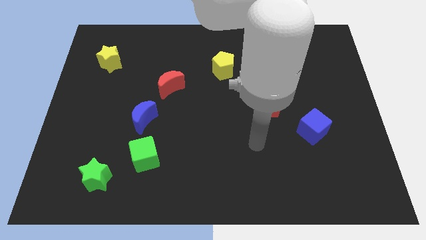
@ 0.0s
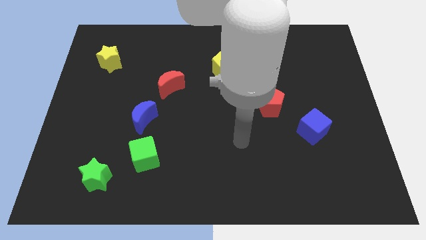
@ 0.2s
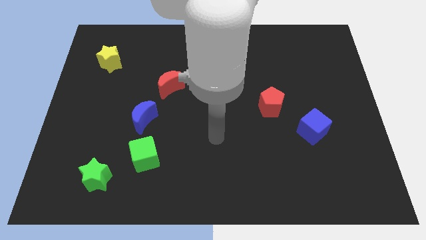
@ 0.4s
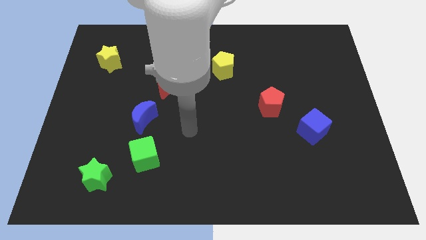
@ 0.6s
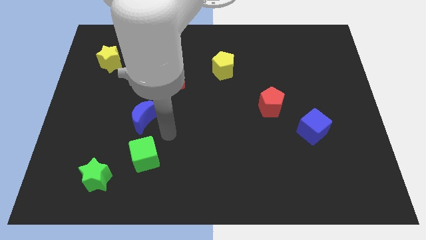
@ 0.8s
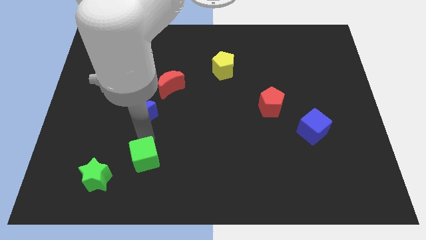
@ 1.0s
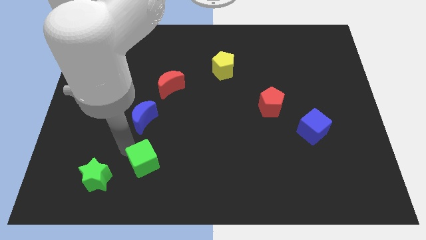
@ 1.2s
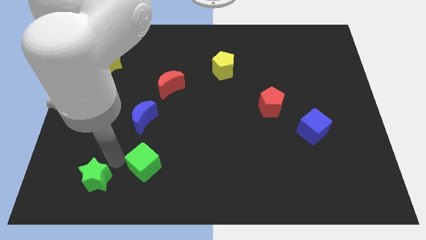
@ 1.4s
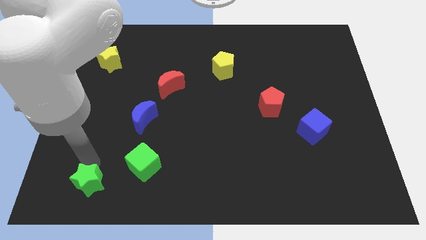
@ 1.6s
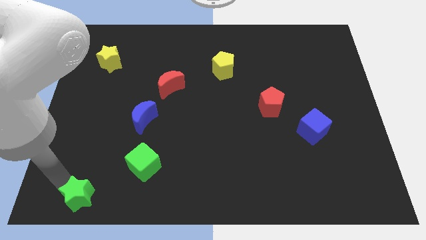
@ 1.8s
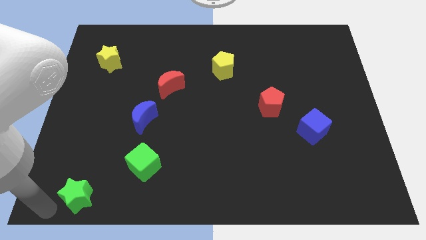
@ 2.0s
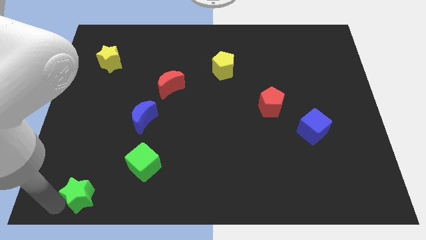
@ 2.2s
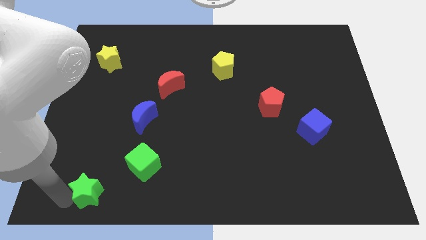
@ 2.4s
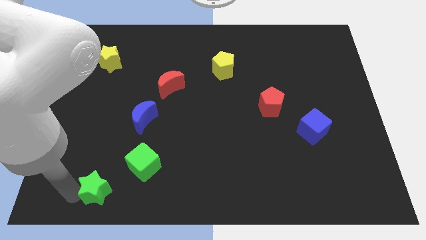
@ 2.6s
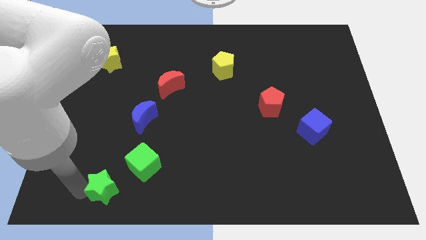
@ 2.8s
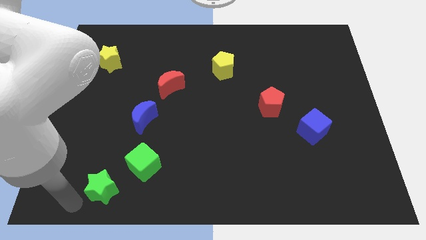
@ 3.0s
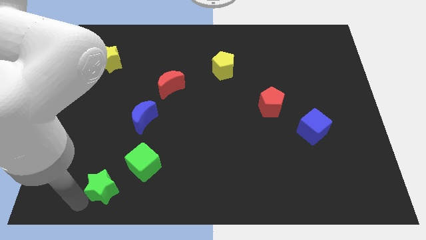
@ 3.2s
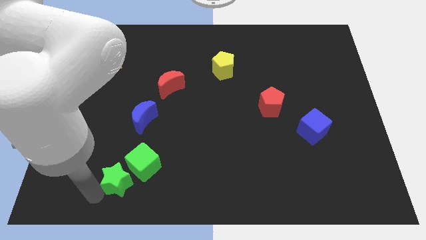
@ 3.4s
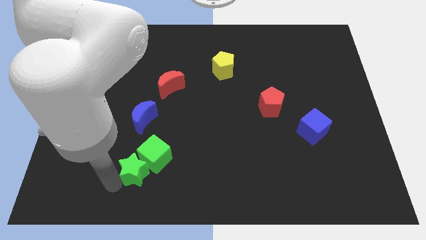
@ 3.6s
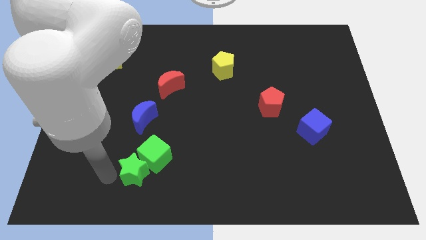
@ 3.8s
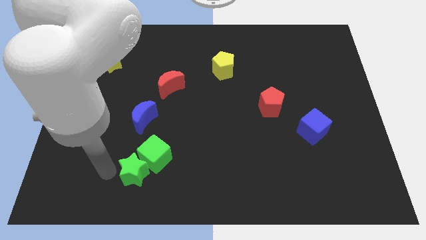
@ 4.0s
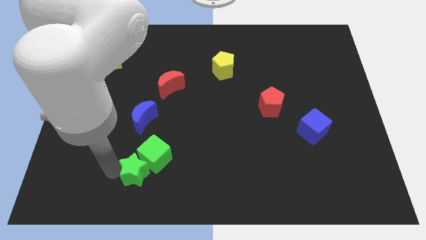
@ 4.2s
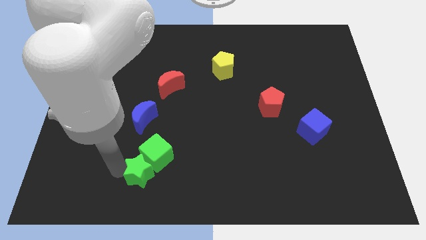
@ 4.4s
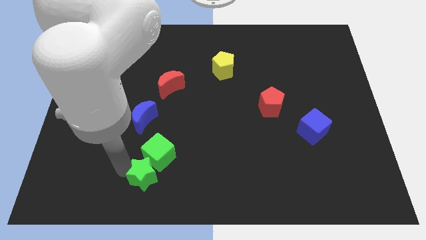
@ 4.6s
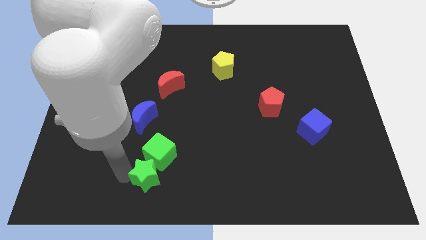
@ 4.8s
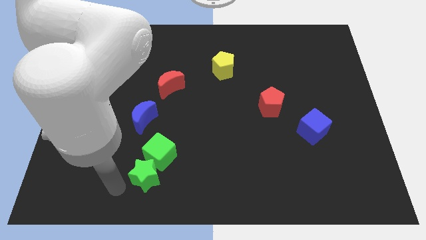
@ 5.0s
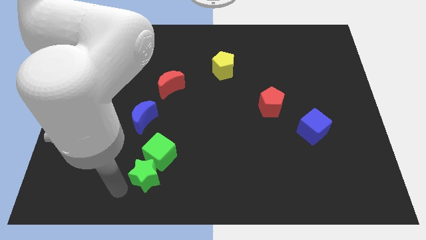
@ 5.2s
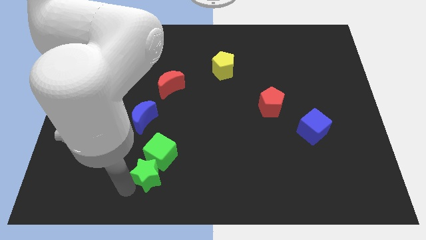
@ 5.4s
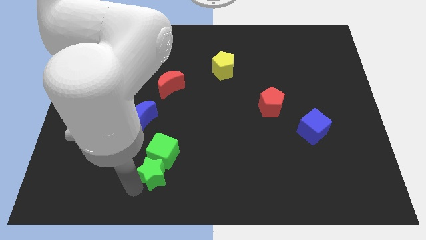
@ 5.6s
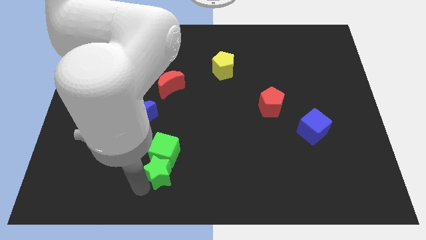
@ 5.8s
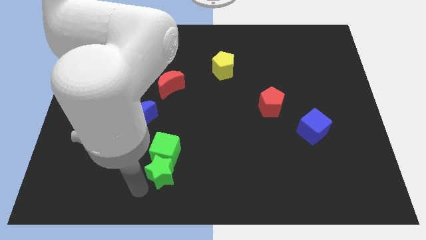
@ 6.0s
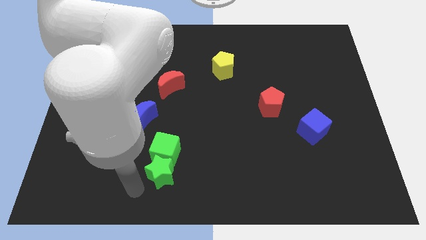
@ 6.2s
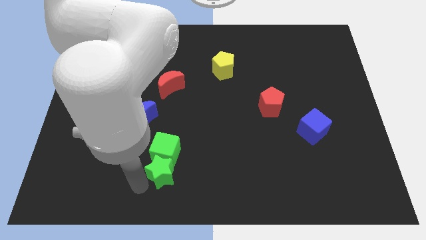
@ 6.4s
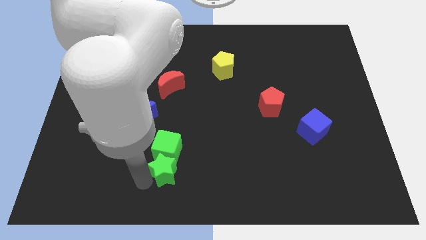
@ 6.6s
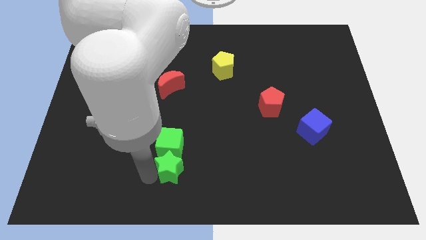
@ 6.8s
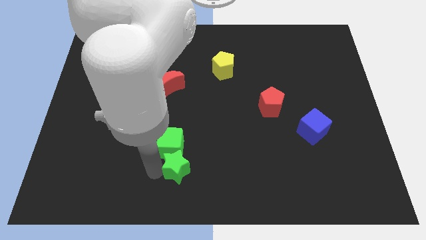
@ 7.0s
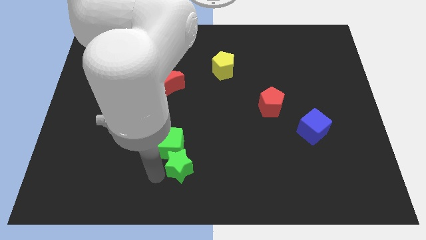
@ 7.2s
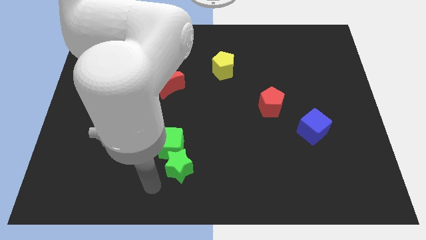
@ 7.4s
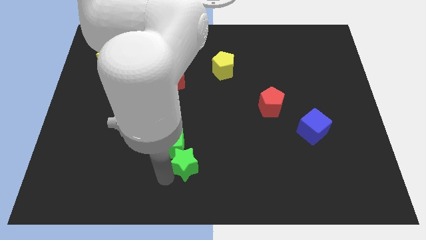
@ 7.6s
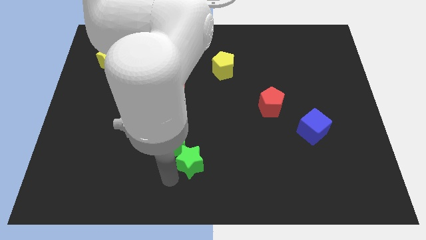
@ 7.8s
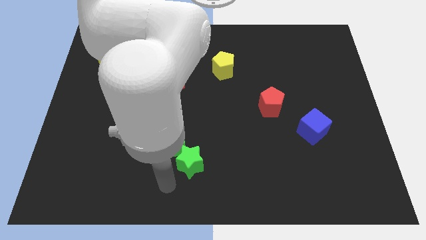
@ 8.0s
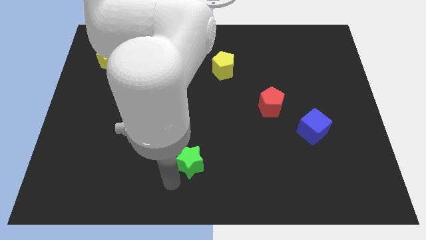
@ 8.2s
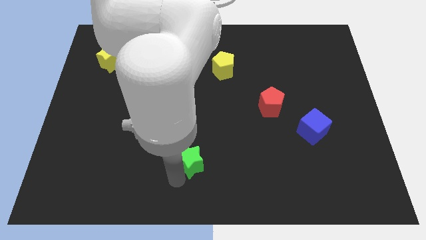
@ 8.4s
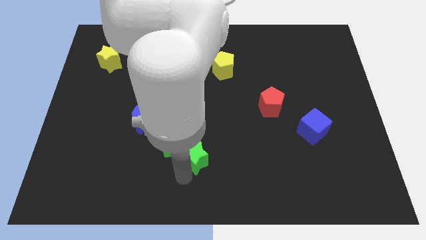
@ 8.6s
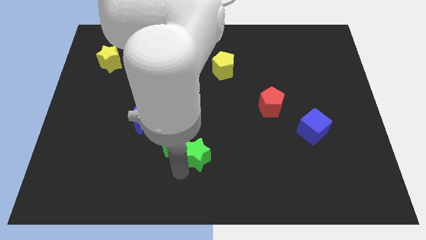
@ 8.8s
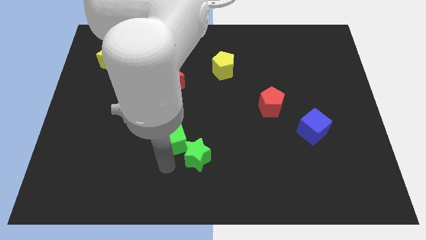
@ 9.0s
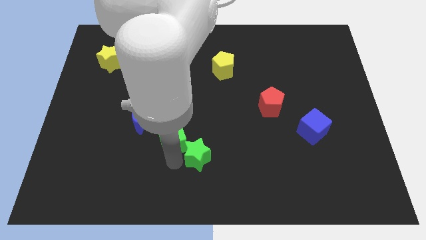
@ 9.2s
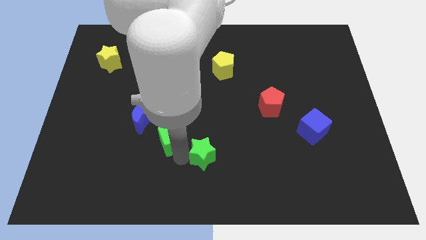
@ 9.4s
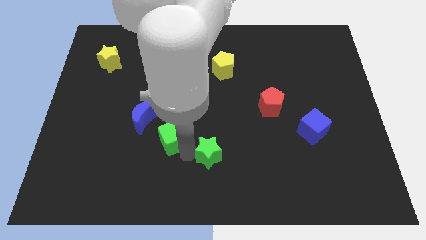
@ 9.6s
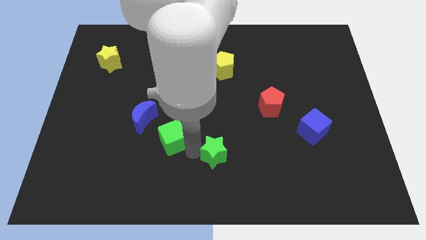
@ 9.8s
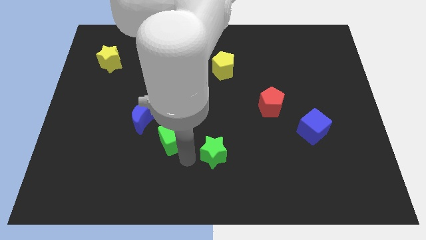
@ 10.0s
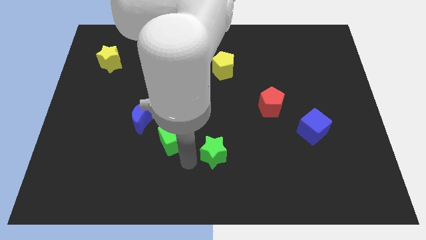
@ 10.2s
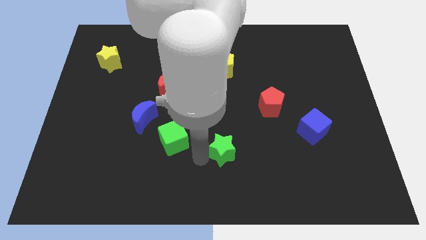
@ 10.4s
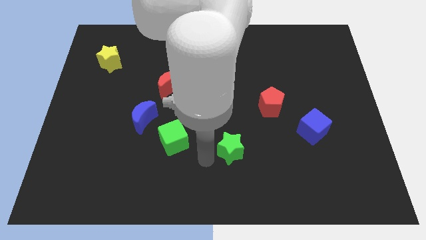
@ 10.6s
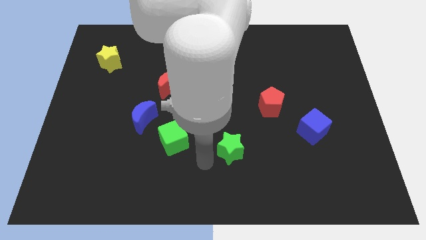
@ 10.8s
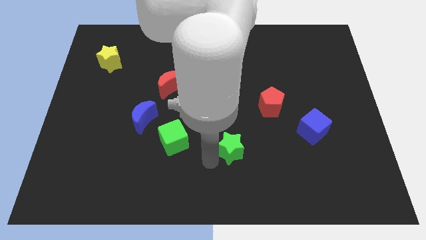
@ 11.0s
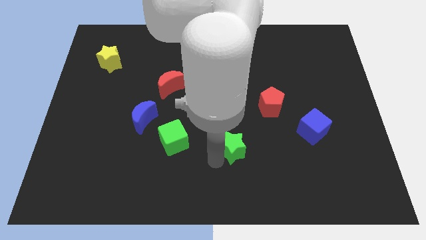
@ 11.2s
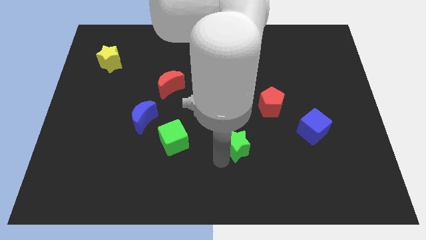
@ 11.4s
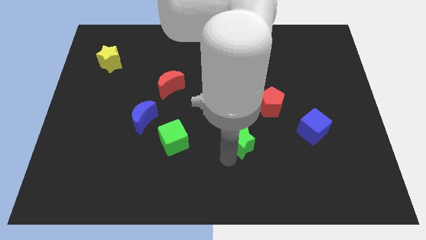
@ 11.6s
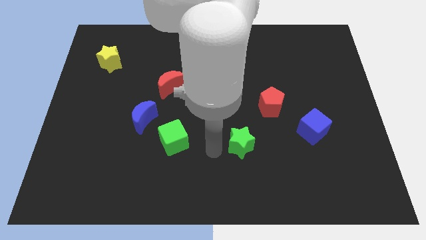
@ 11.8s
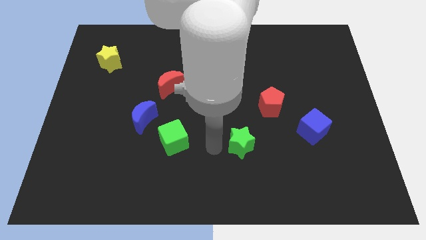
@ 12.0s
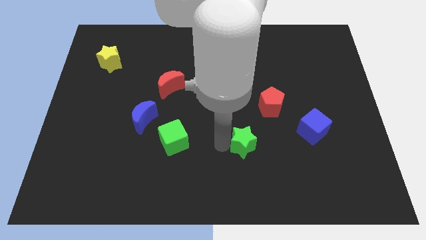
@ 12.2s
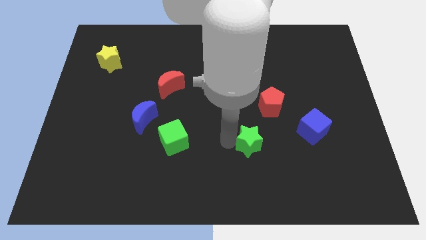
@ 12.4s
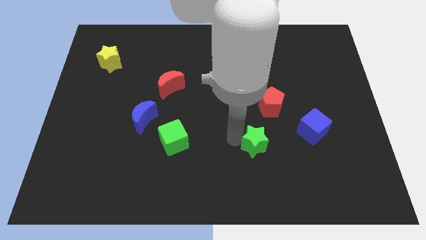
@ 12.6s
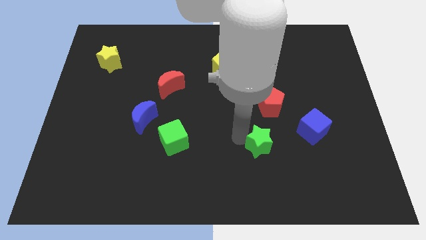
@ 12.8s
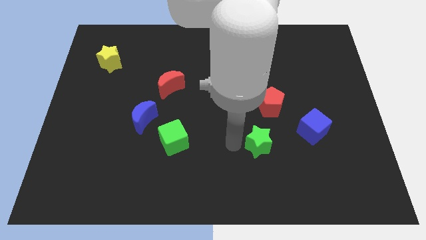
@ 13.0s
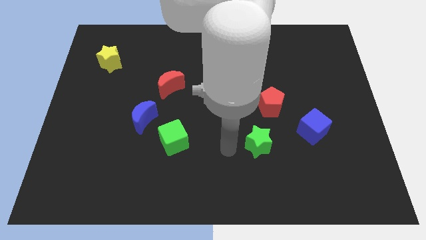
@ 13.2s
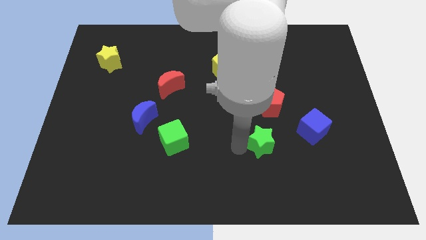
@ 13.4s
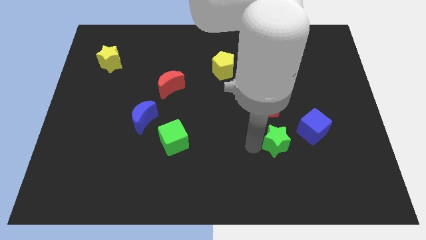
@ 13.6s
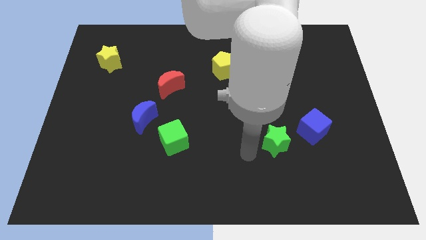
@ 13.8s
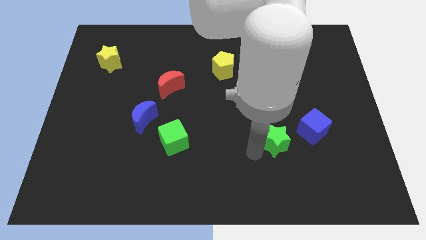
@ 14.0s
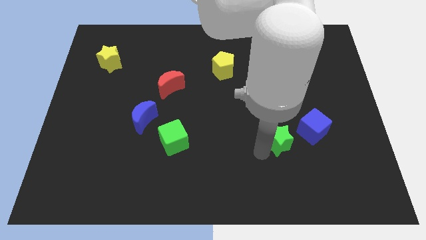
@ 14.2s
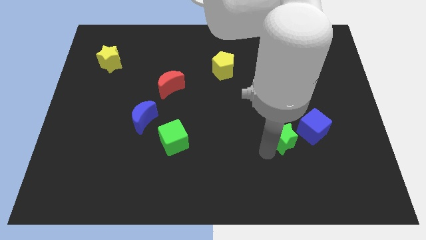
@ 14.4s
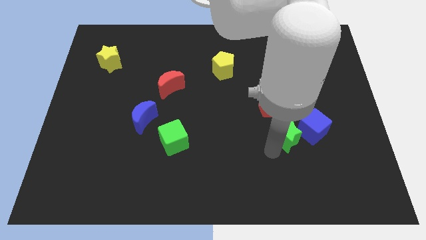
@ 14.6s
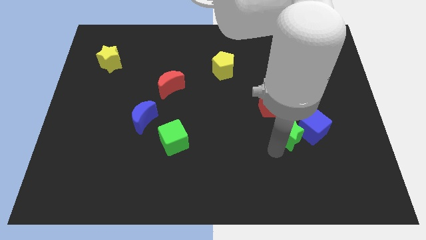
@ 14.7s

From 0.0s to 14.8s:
push the green star to the blue cube
